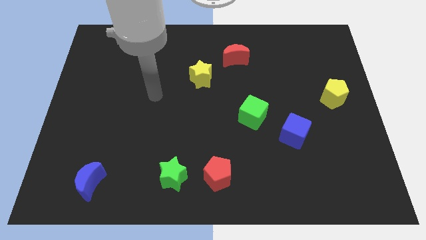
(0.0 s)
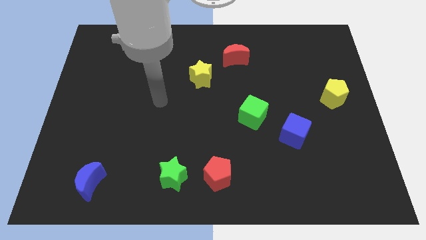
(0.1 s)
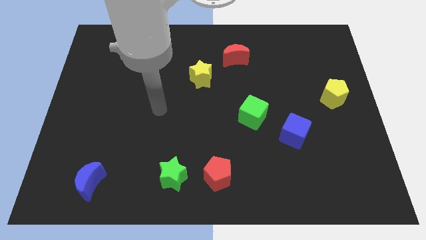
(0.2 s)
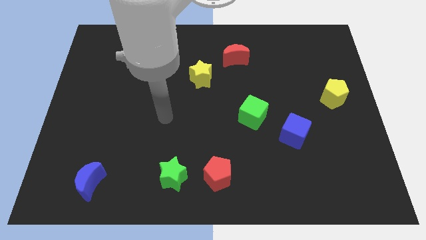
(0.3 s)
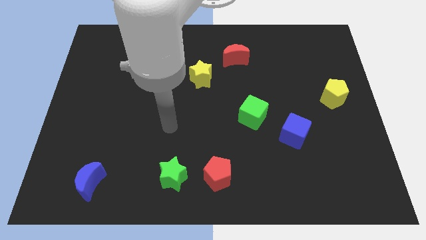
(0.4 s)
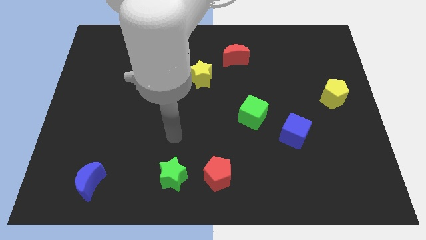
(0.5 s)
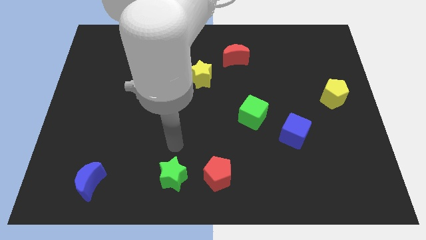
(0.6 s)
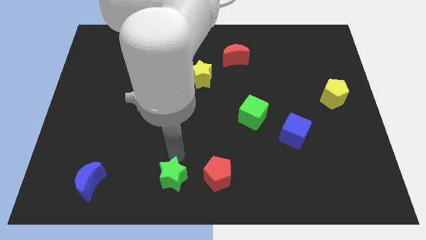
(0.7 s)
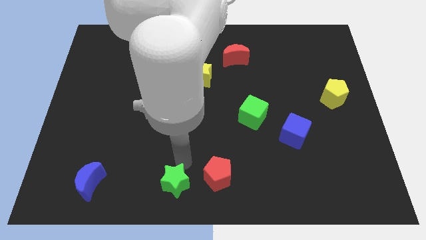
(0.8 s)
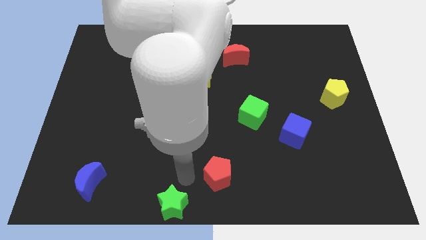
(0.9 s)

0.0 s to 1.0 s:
separate the red pentagon from the green star

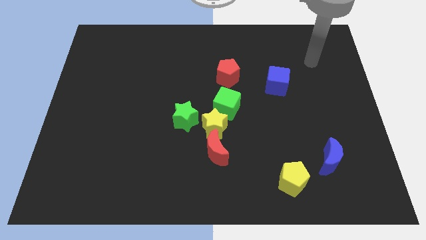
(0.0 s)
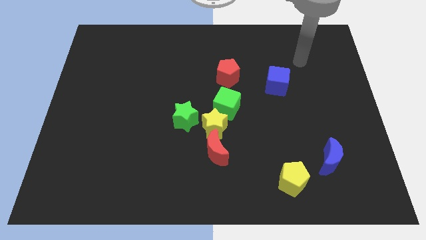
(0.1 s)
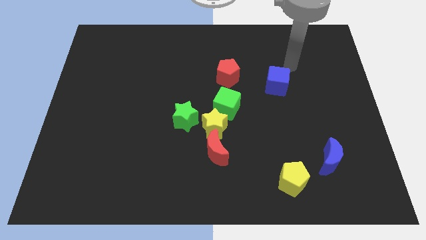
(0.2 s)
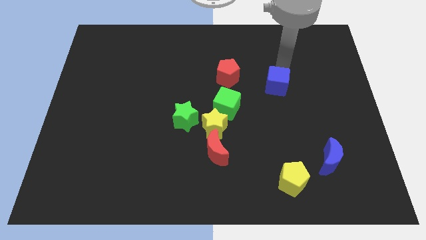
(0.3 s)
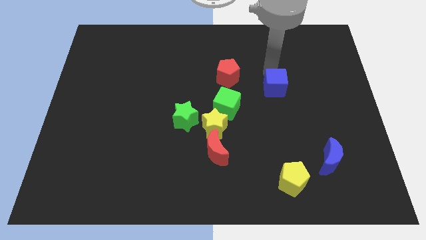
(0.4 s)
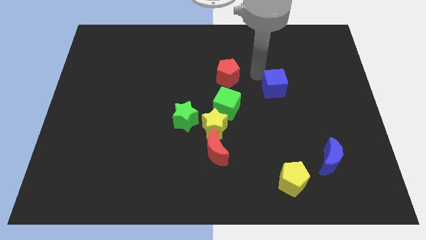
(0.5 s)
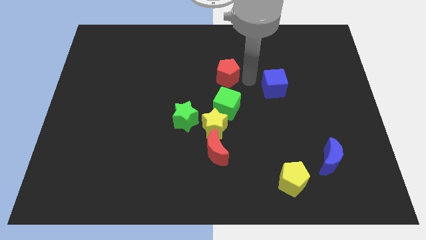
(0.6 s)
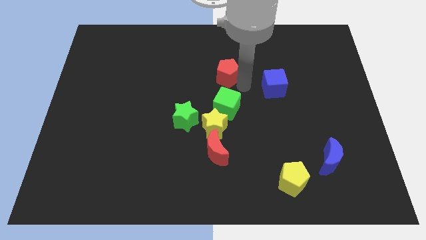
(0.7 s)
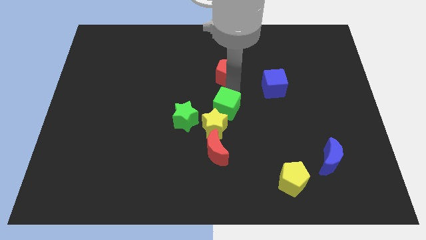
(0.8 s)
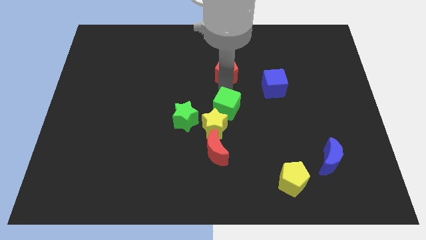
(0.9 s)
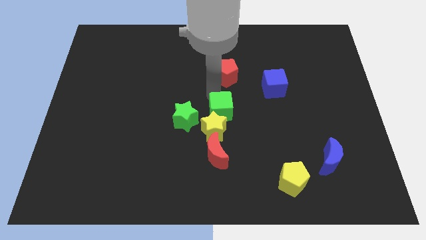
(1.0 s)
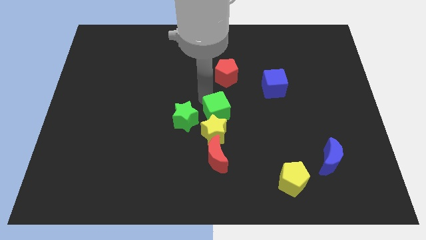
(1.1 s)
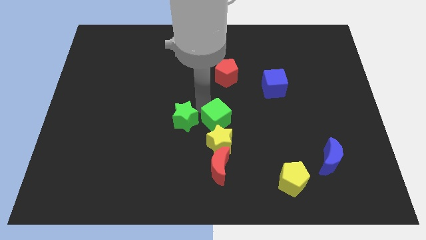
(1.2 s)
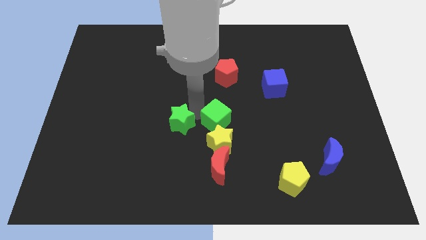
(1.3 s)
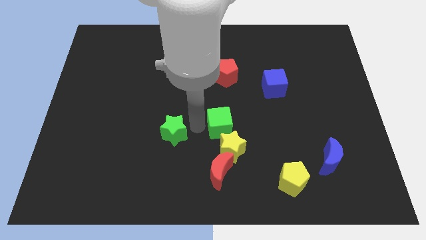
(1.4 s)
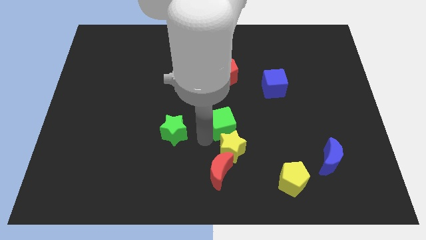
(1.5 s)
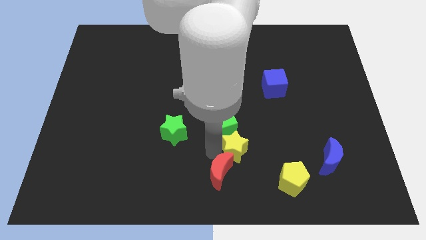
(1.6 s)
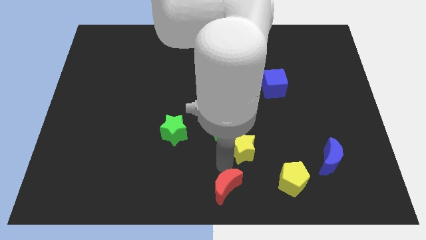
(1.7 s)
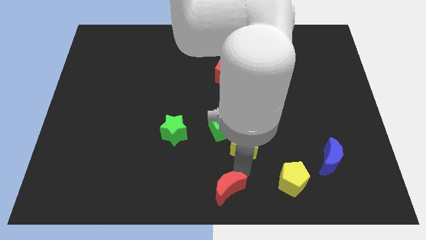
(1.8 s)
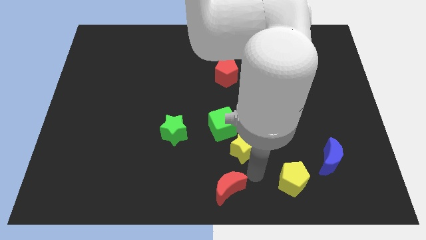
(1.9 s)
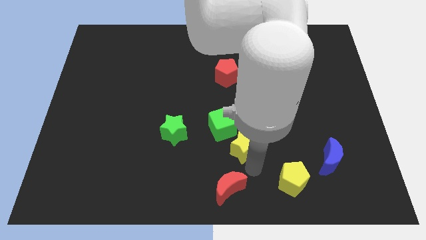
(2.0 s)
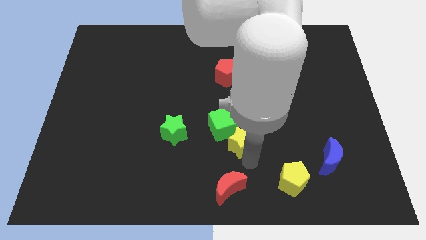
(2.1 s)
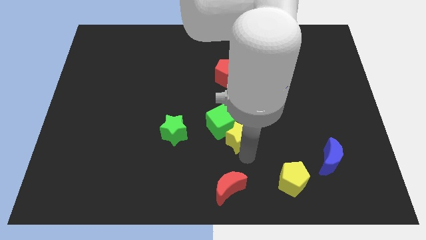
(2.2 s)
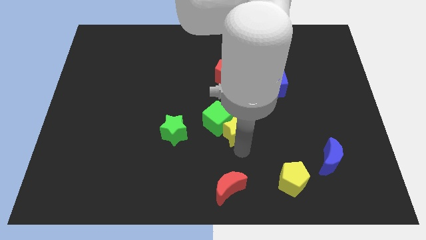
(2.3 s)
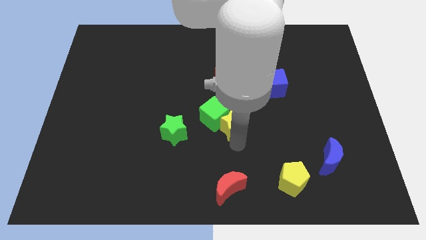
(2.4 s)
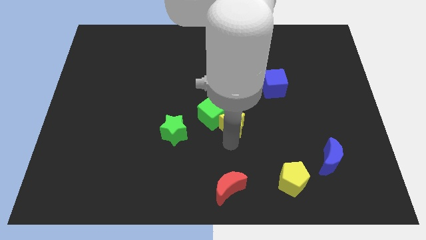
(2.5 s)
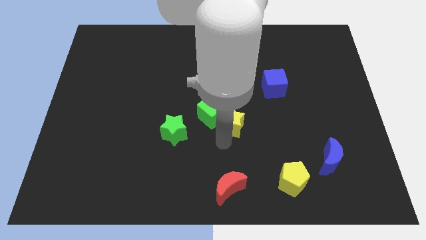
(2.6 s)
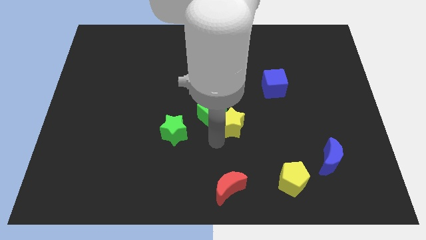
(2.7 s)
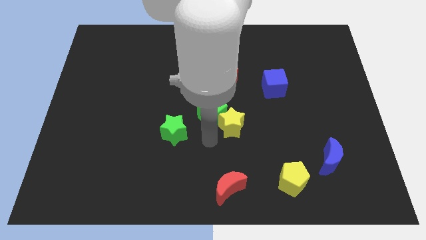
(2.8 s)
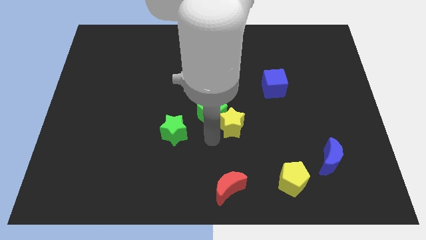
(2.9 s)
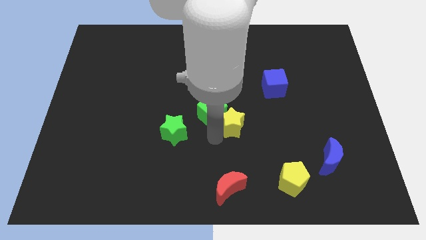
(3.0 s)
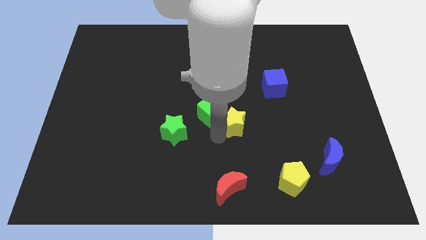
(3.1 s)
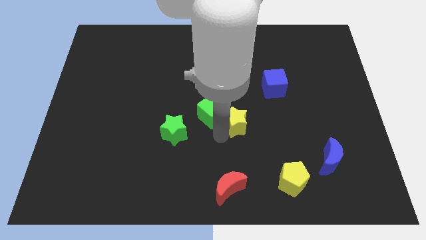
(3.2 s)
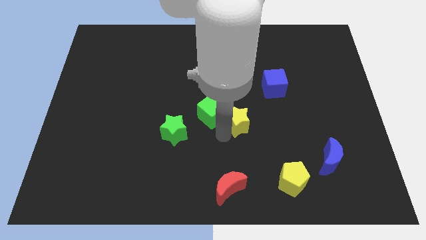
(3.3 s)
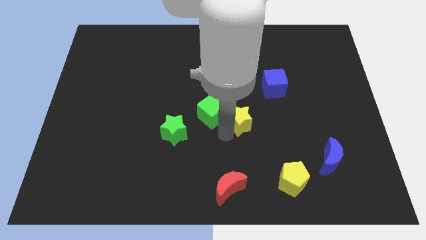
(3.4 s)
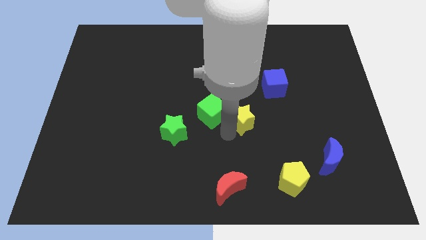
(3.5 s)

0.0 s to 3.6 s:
pull the yellow star apart from the group of blocks

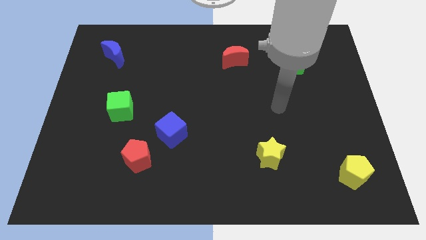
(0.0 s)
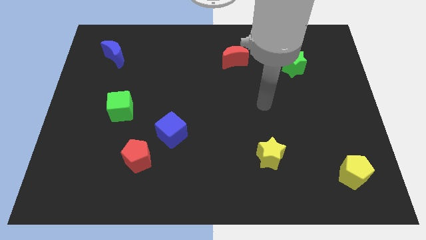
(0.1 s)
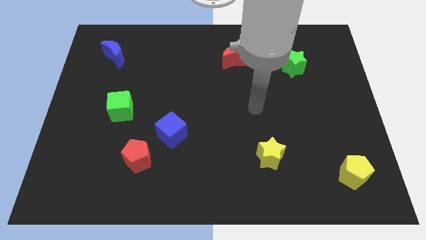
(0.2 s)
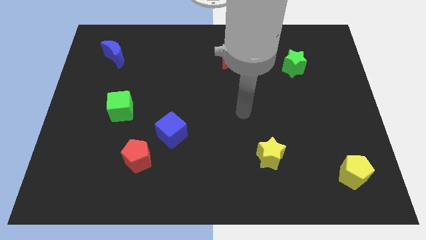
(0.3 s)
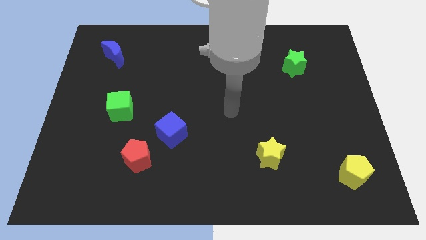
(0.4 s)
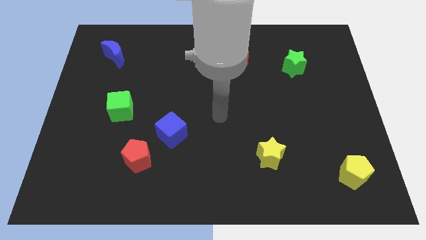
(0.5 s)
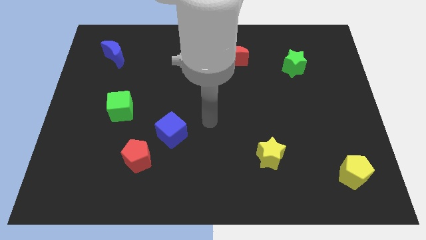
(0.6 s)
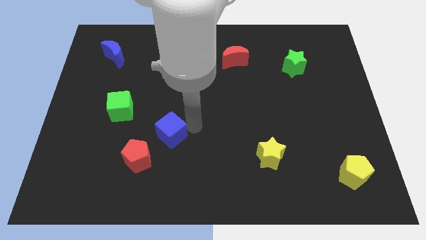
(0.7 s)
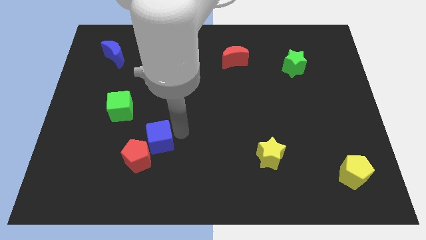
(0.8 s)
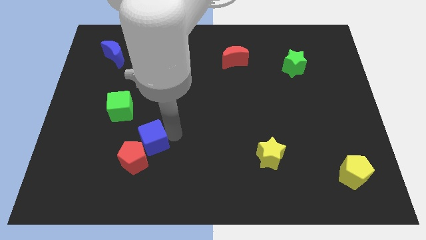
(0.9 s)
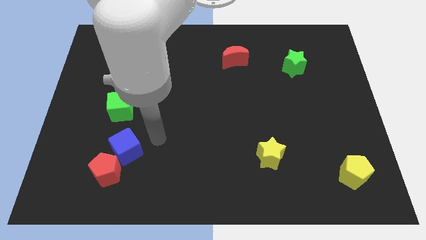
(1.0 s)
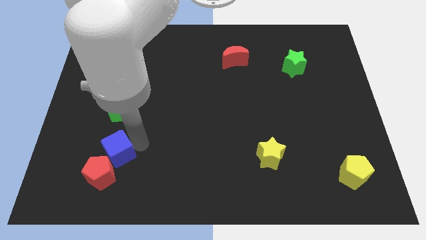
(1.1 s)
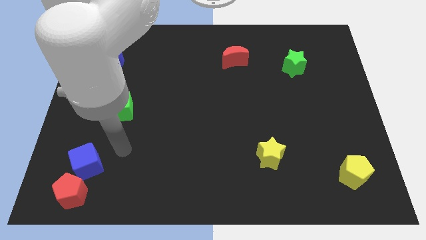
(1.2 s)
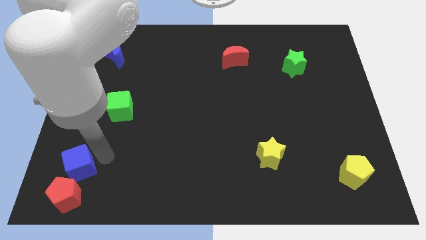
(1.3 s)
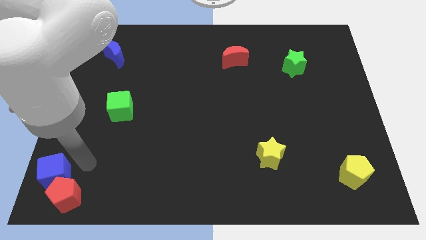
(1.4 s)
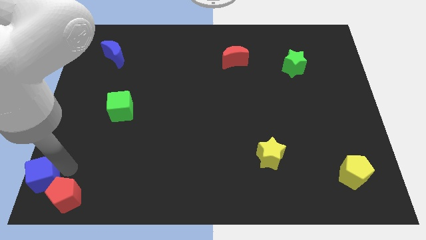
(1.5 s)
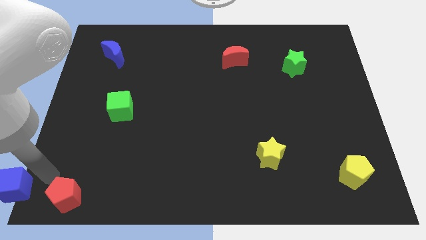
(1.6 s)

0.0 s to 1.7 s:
separate the red pentagon from the blue cube

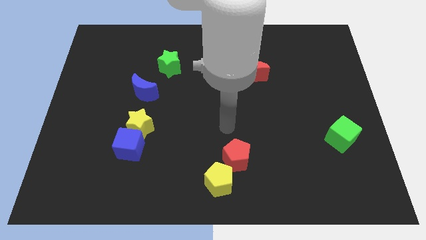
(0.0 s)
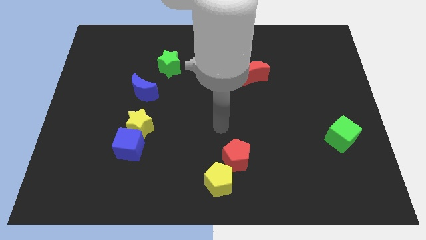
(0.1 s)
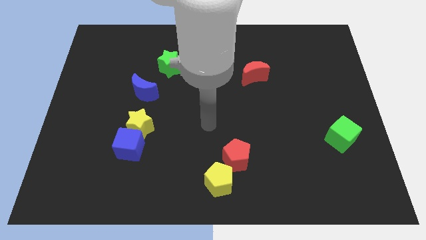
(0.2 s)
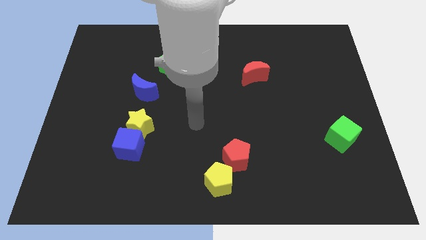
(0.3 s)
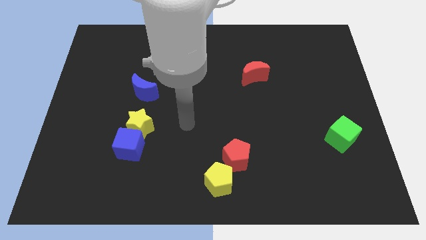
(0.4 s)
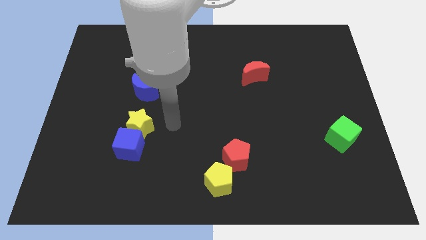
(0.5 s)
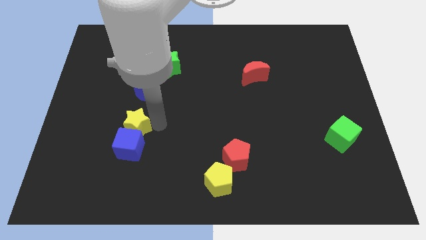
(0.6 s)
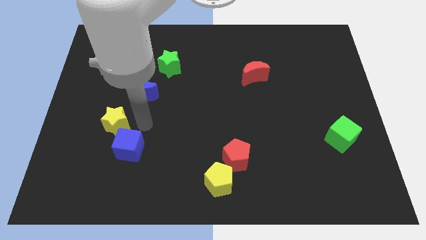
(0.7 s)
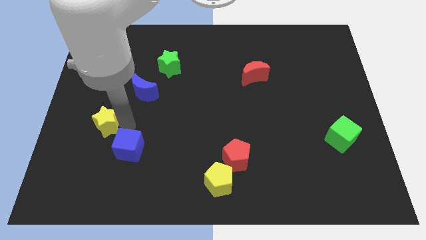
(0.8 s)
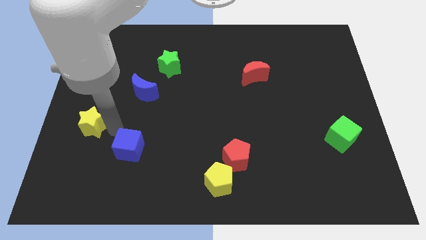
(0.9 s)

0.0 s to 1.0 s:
separate the blue cube from the yellow star

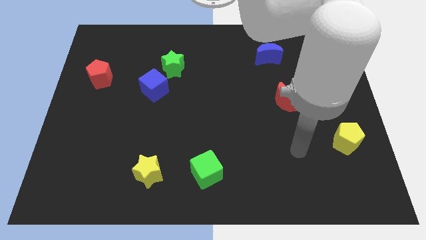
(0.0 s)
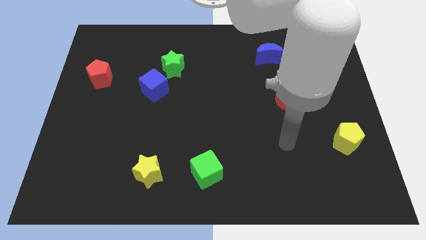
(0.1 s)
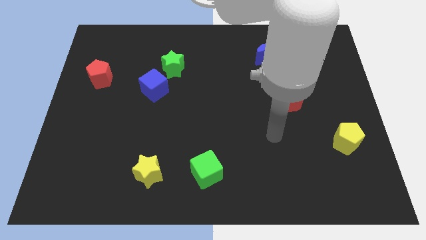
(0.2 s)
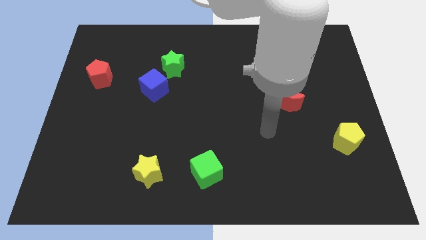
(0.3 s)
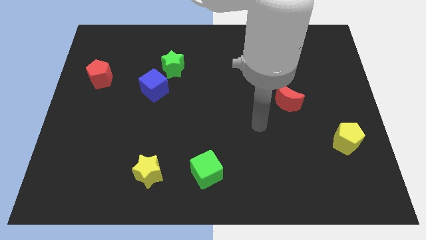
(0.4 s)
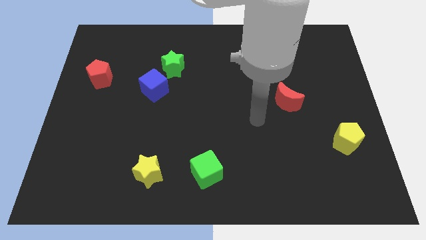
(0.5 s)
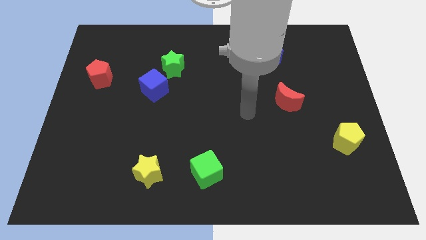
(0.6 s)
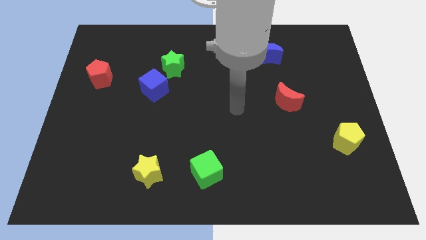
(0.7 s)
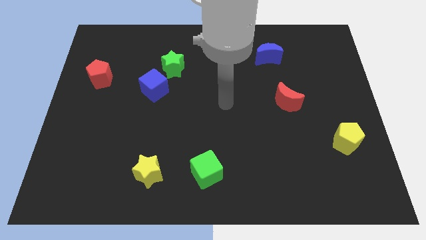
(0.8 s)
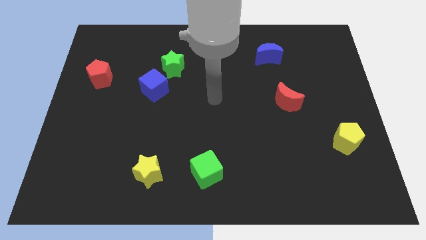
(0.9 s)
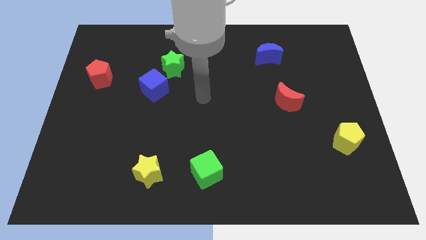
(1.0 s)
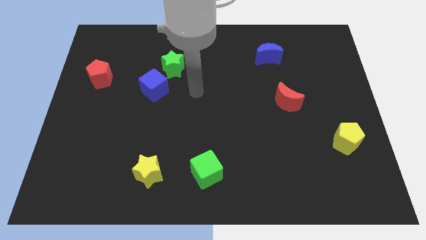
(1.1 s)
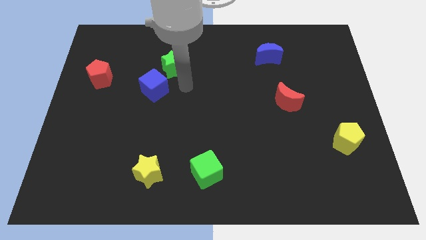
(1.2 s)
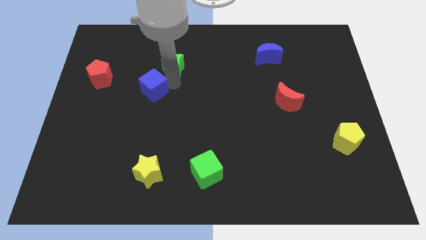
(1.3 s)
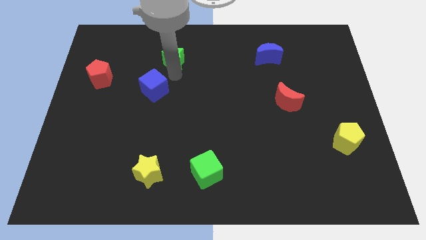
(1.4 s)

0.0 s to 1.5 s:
separate the blue cube from the green star

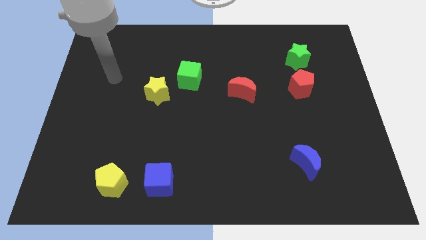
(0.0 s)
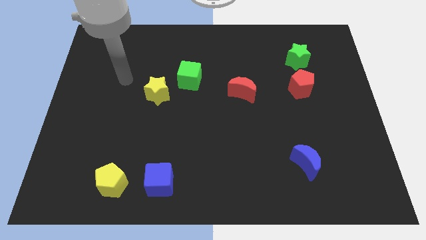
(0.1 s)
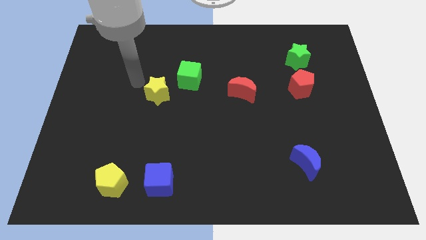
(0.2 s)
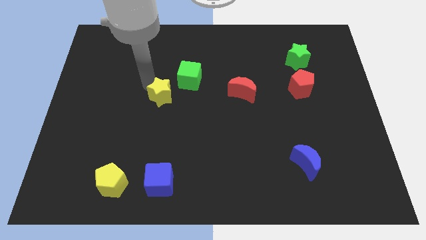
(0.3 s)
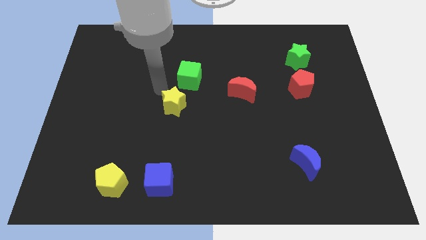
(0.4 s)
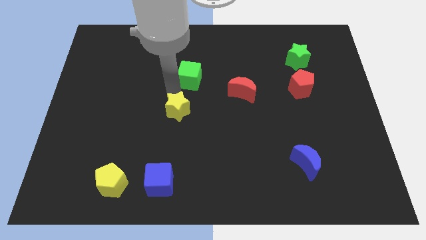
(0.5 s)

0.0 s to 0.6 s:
move the green cube away from the yellow star
